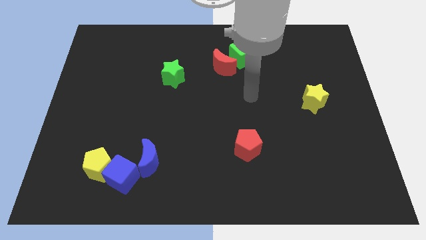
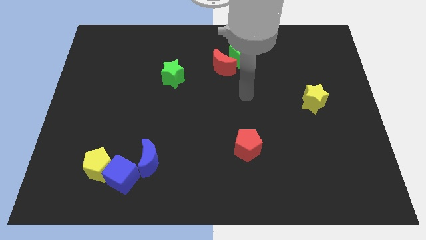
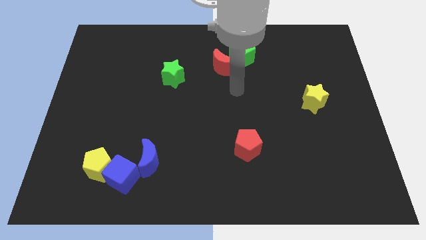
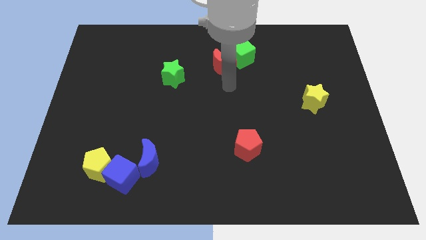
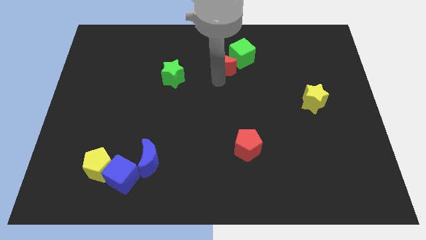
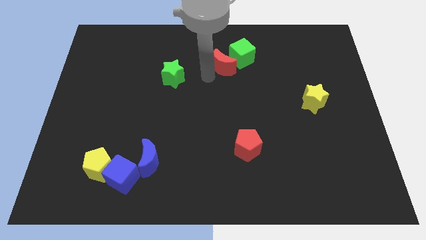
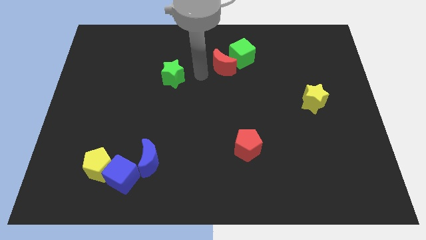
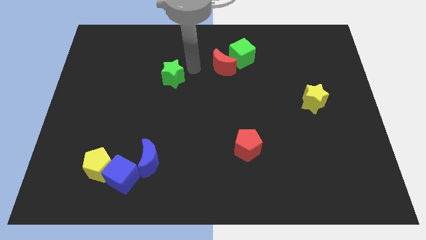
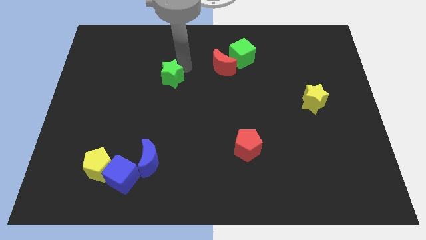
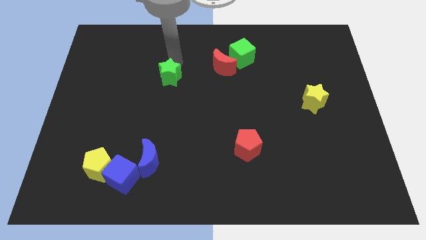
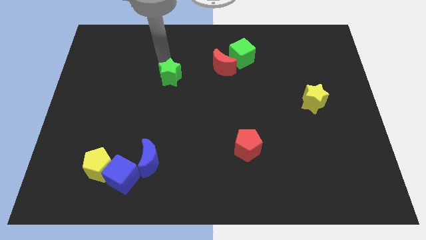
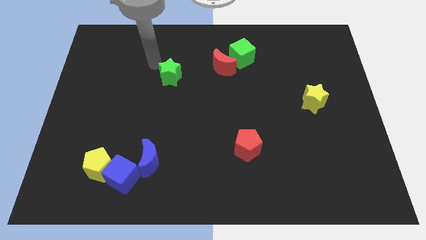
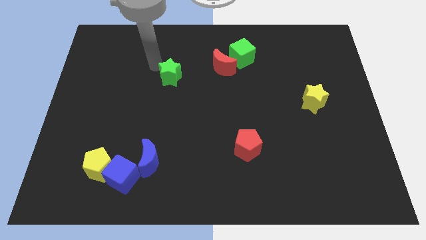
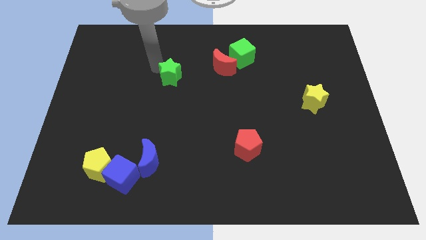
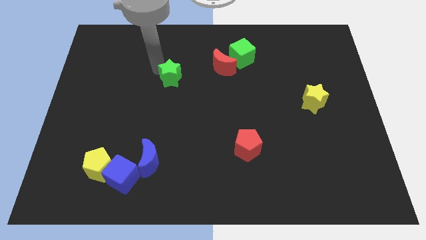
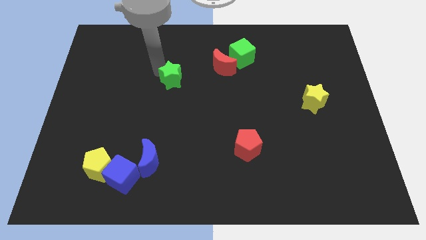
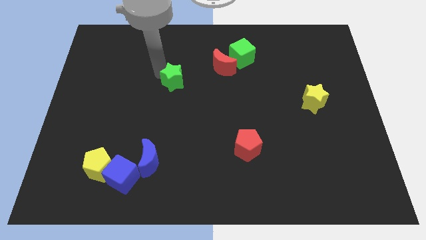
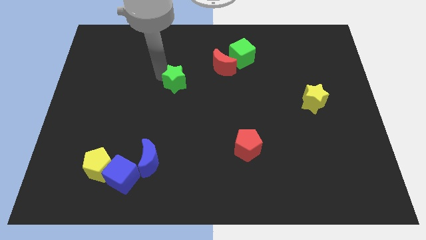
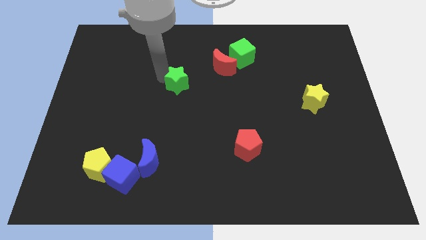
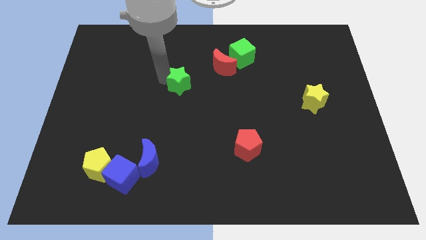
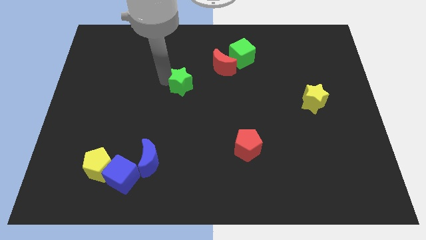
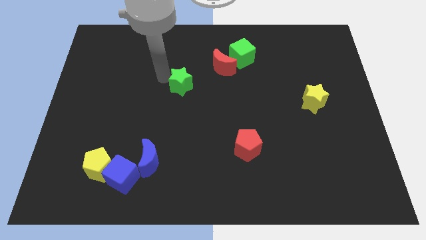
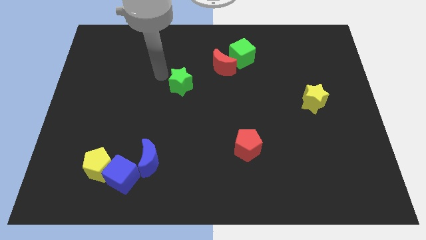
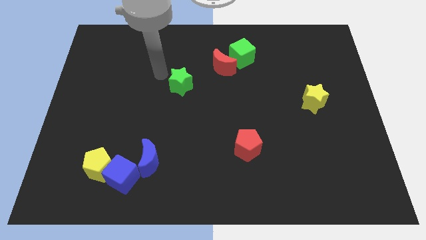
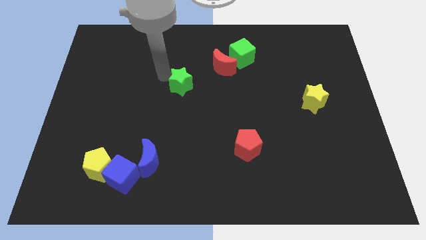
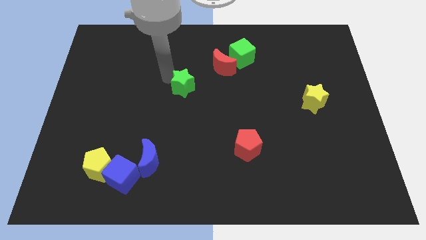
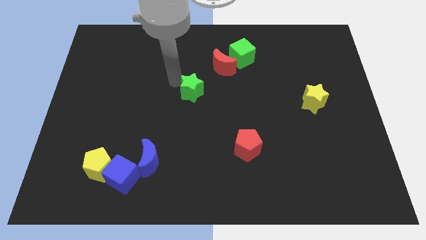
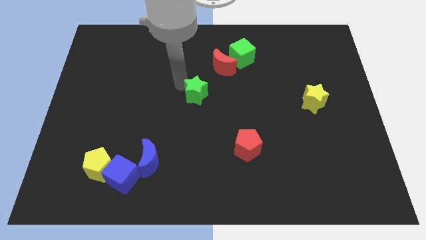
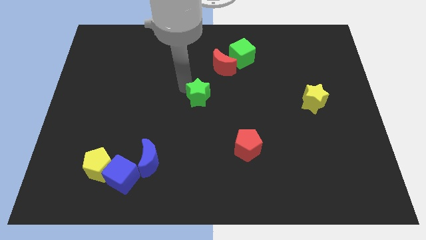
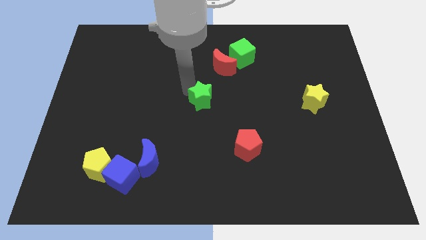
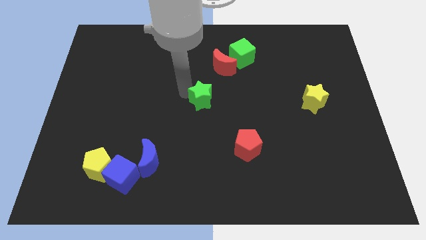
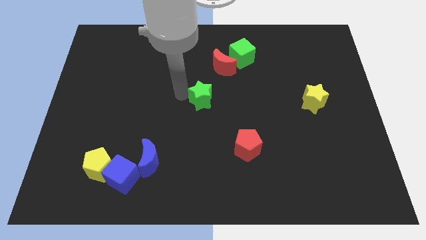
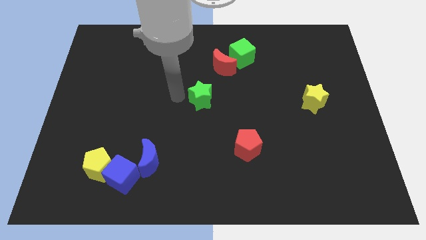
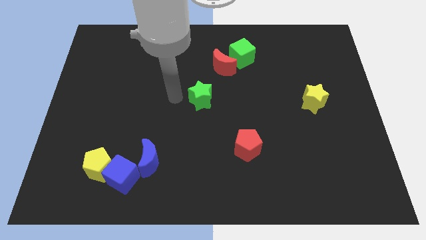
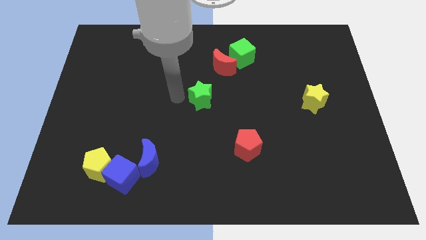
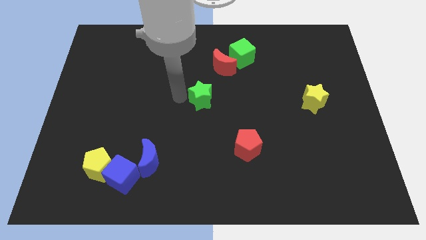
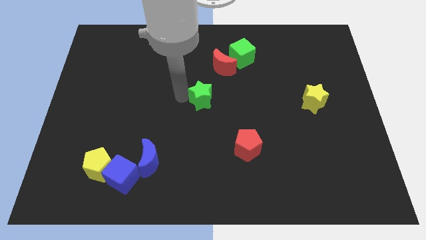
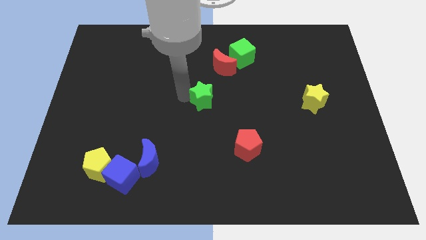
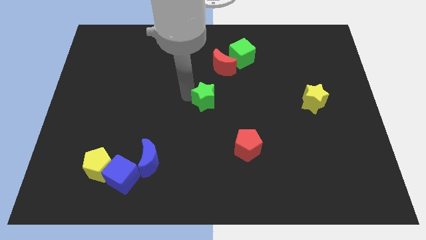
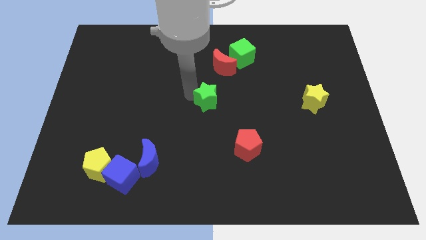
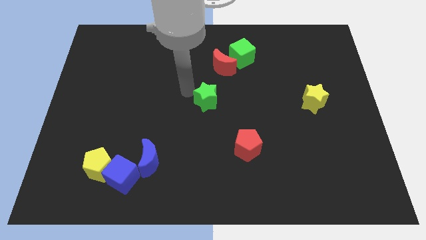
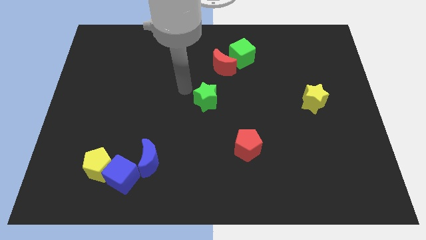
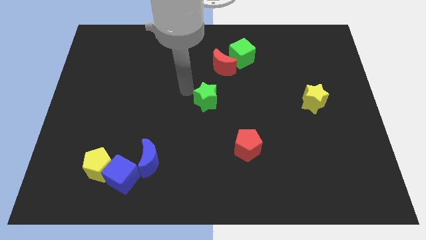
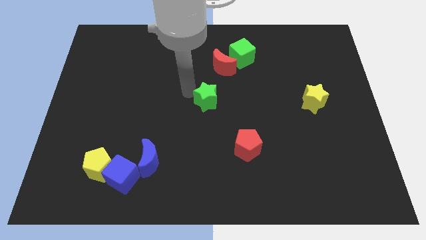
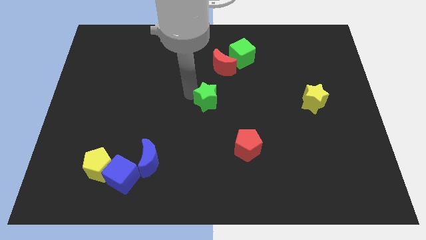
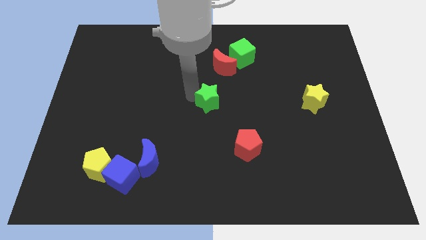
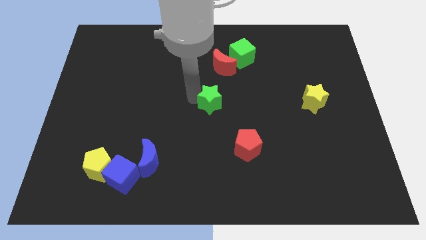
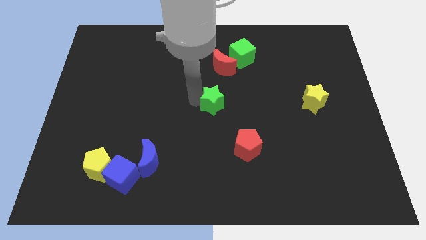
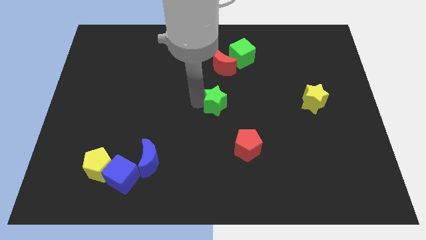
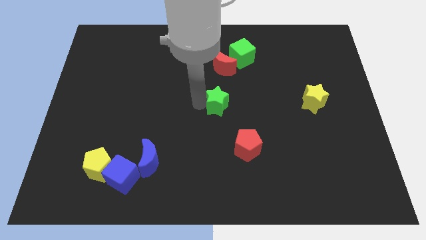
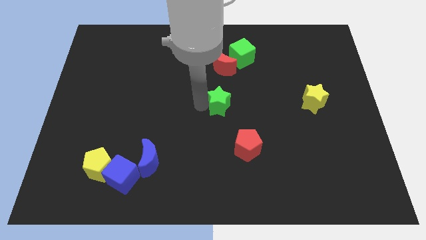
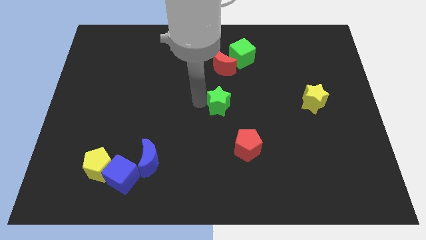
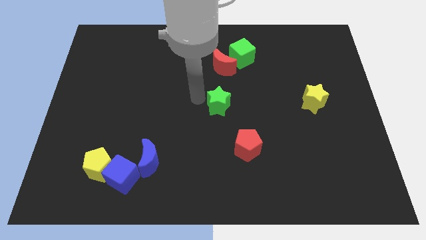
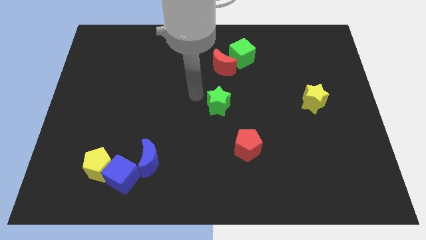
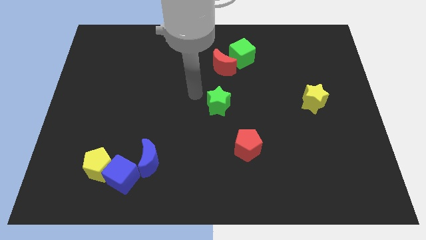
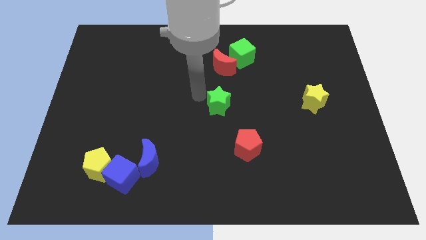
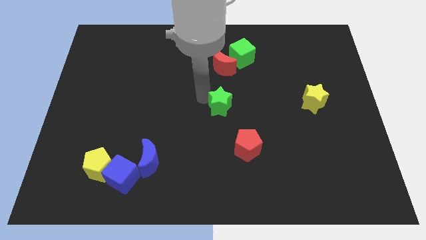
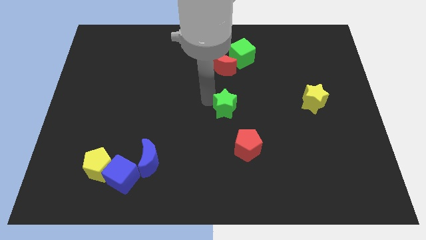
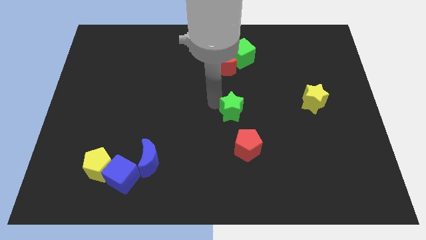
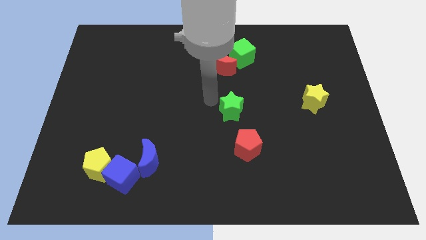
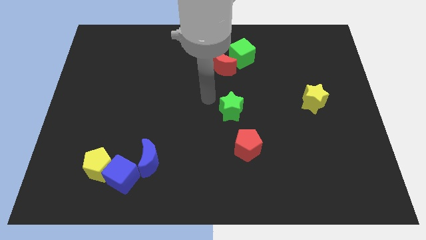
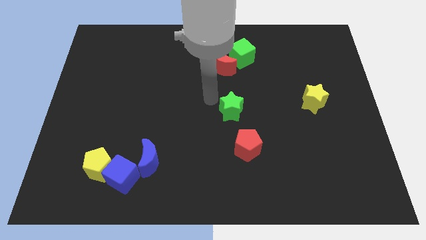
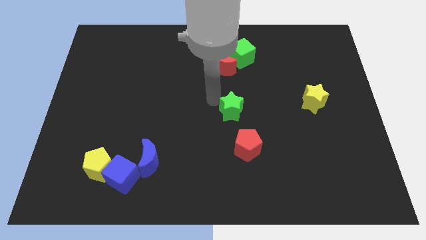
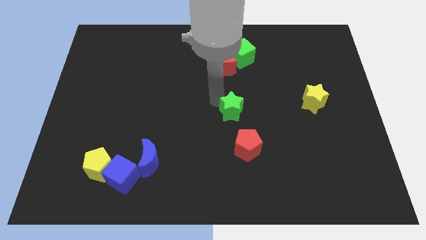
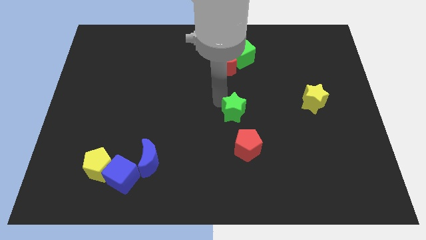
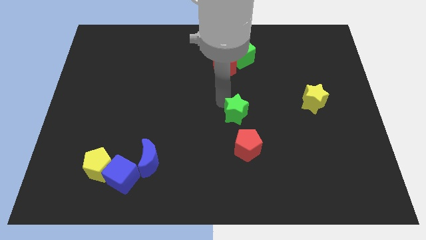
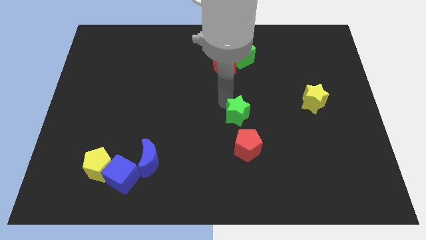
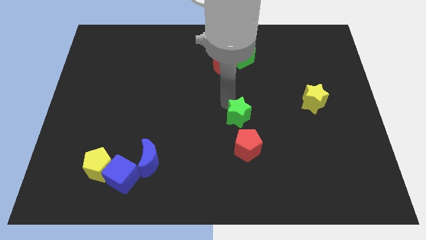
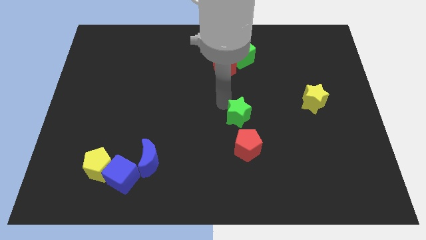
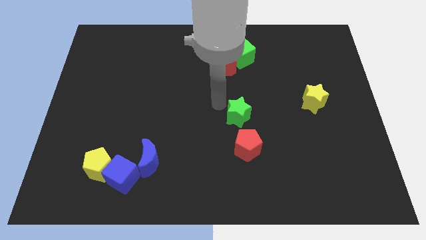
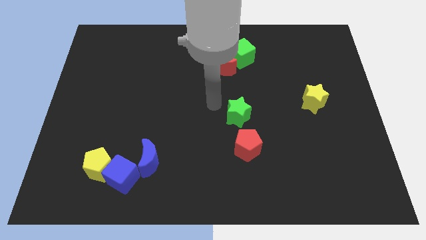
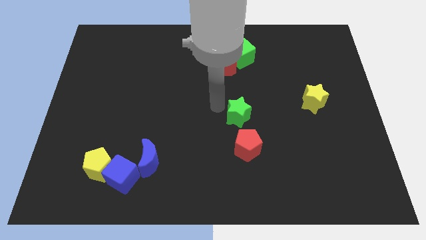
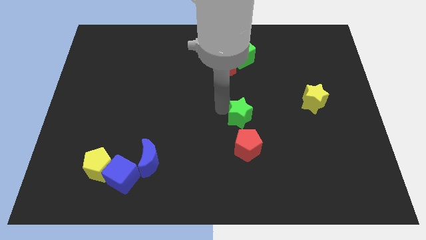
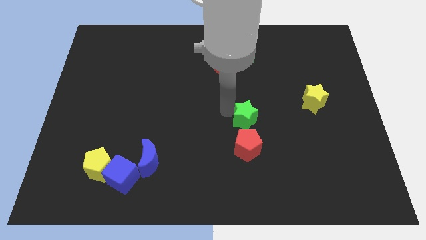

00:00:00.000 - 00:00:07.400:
move the green star downwards and right diagonally

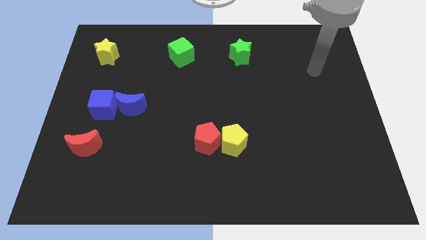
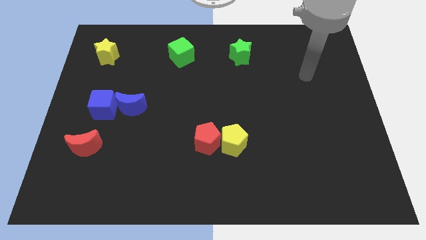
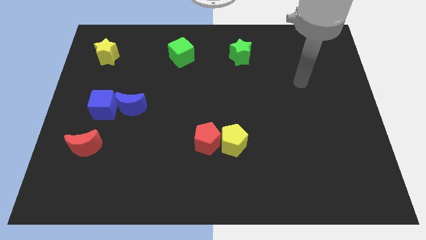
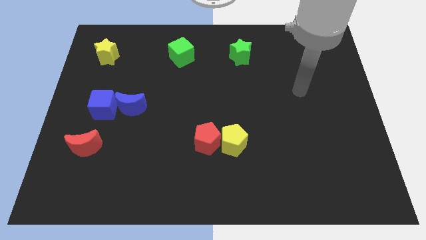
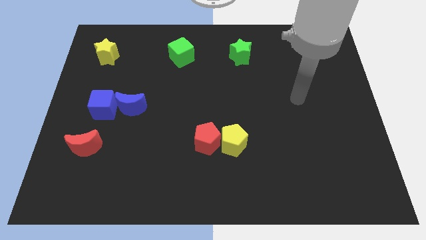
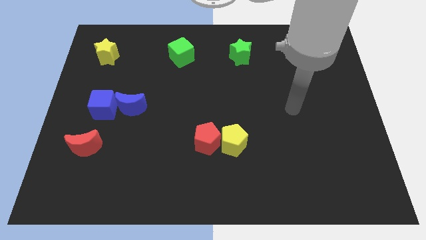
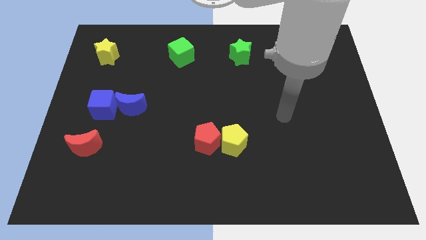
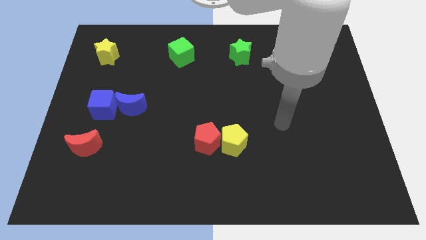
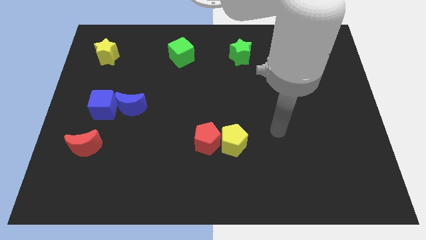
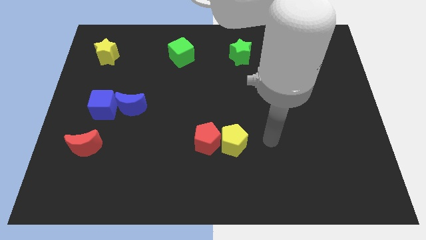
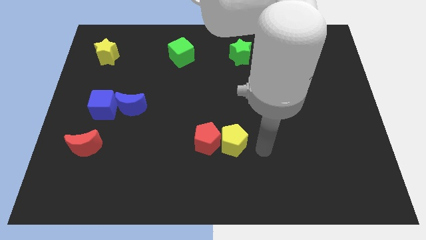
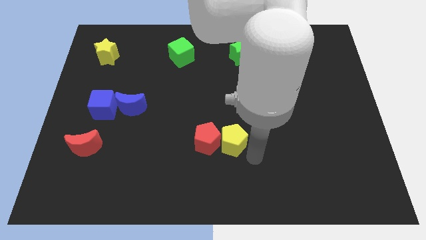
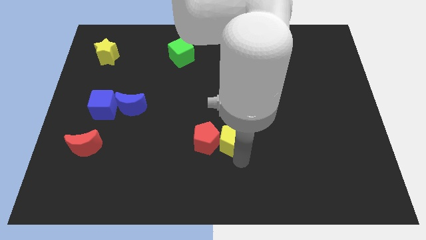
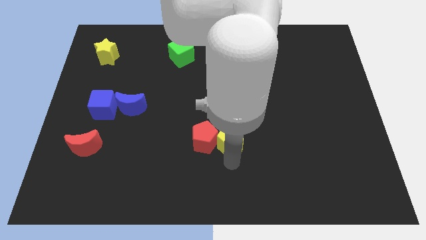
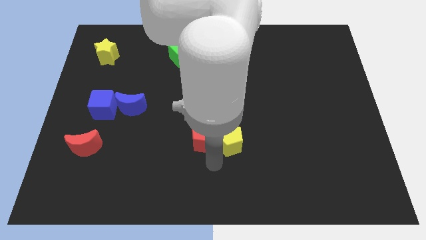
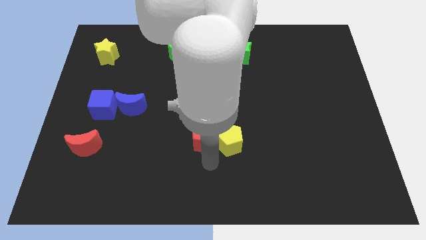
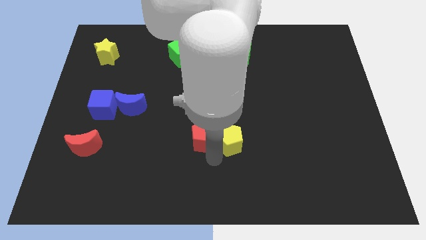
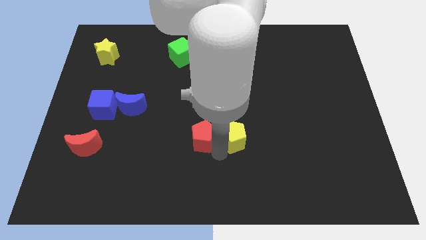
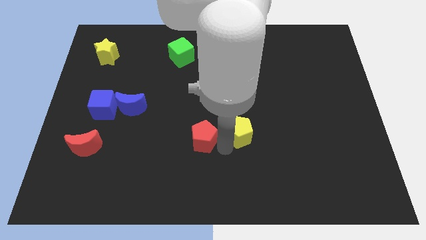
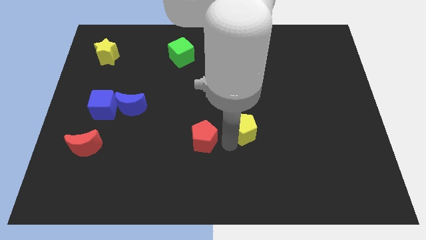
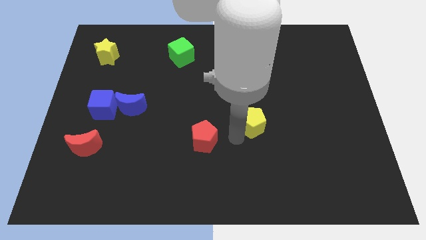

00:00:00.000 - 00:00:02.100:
slide the yellow pentagon somewhat upwards and right
